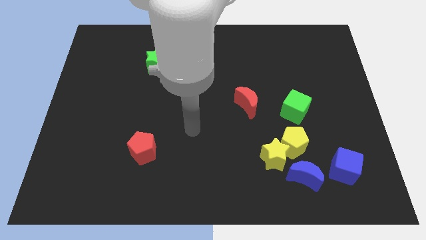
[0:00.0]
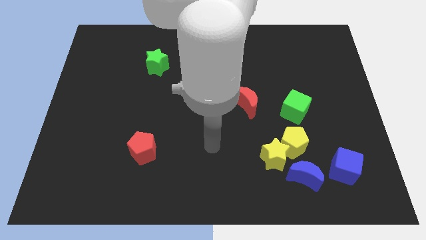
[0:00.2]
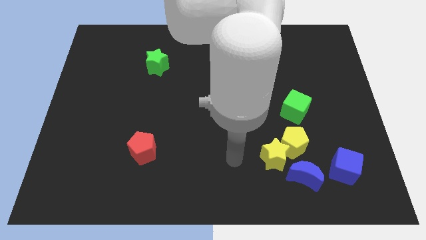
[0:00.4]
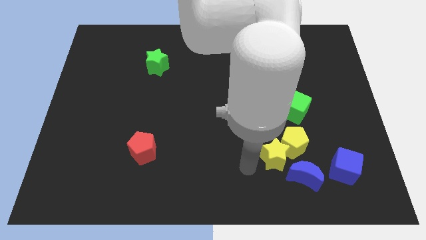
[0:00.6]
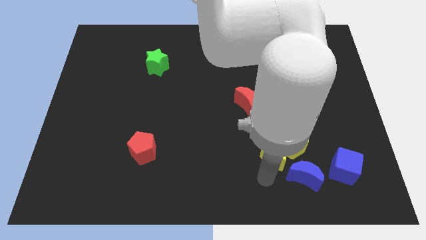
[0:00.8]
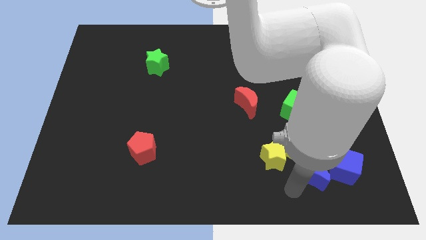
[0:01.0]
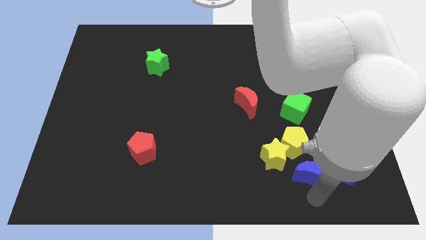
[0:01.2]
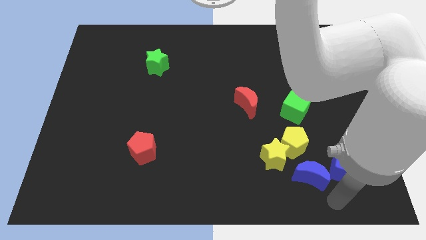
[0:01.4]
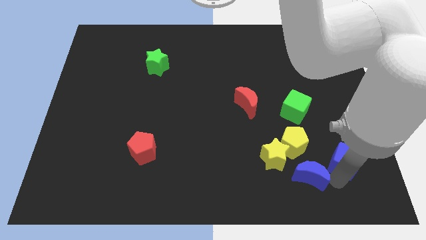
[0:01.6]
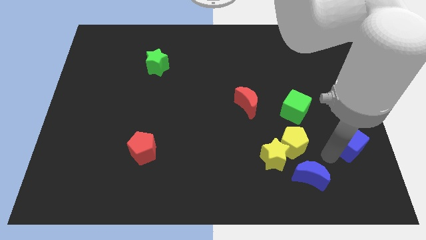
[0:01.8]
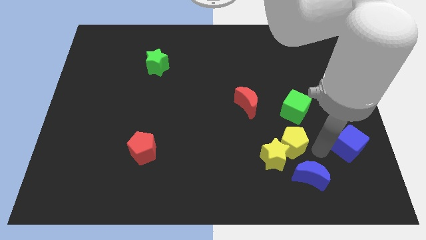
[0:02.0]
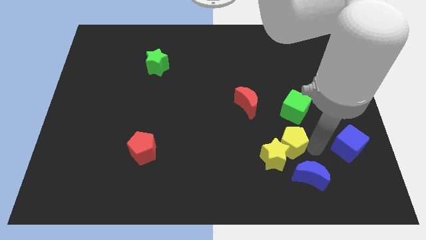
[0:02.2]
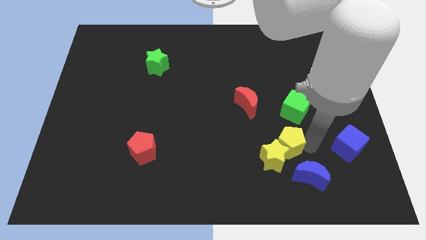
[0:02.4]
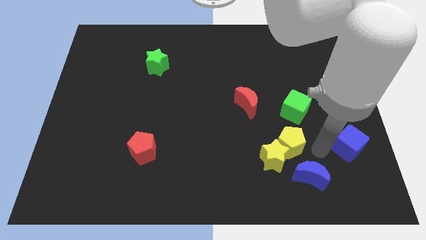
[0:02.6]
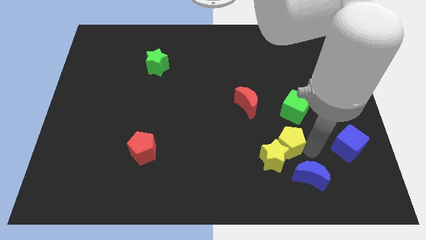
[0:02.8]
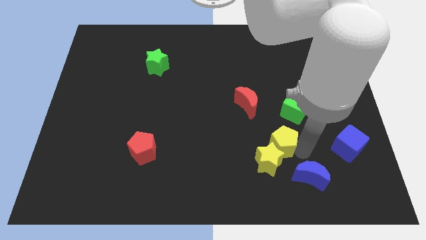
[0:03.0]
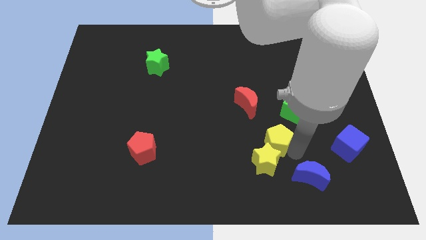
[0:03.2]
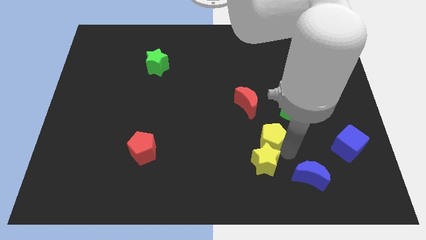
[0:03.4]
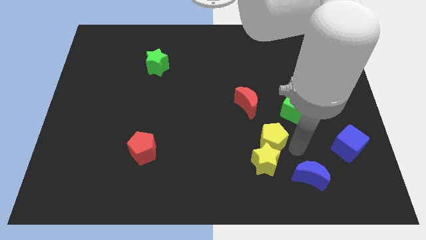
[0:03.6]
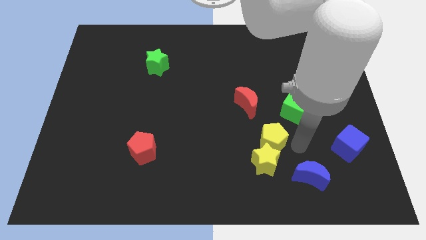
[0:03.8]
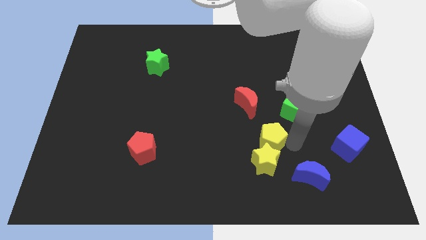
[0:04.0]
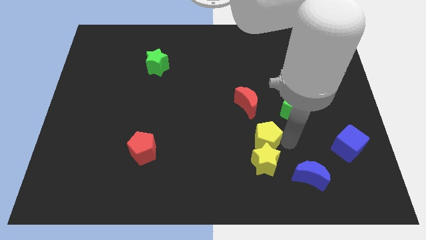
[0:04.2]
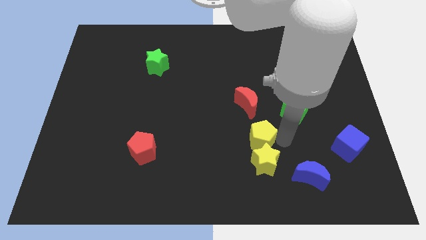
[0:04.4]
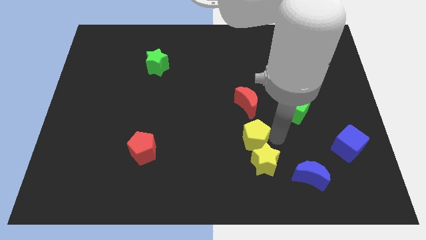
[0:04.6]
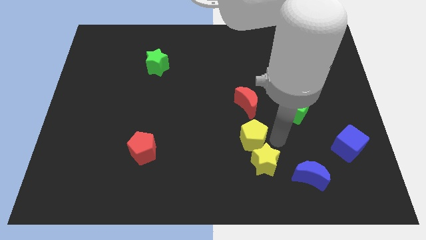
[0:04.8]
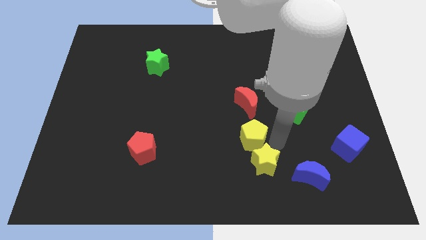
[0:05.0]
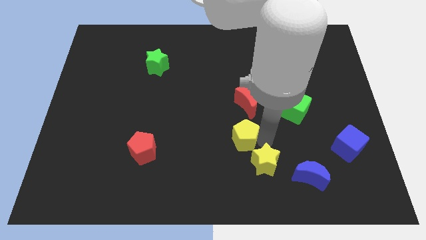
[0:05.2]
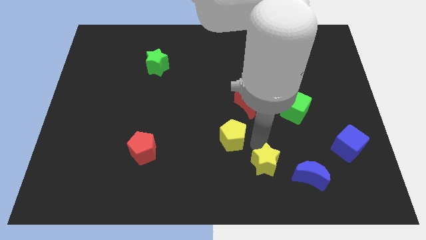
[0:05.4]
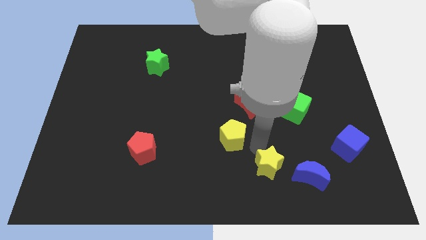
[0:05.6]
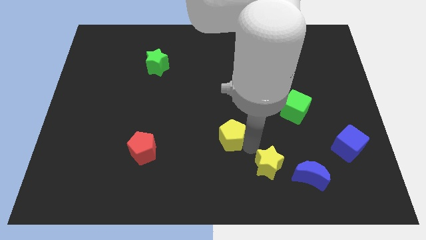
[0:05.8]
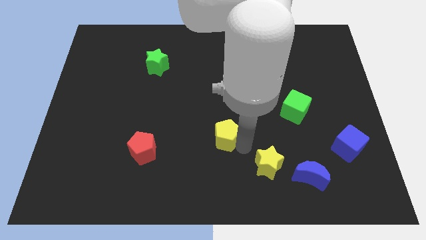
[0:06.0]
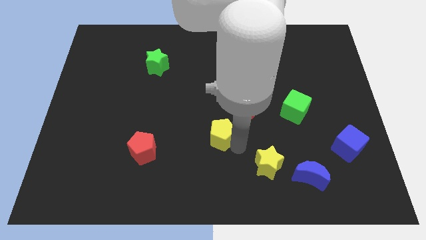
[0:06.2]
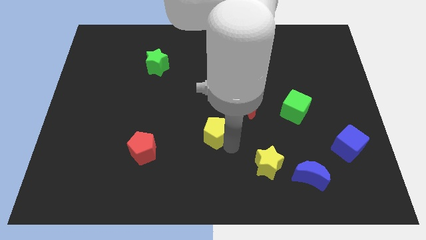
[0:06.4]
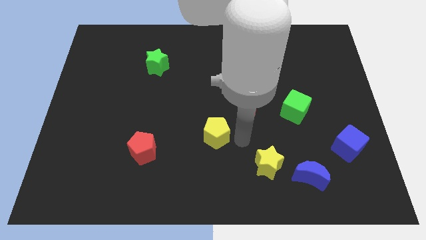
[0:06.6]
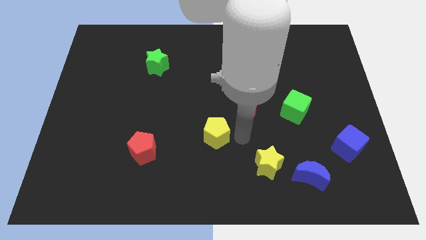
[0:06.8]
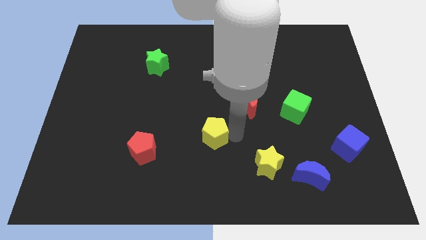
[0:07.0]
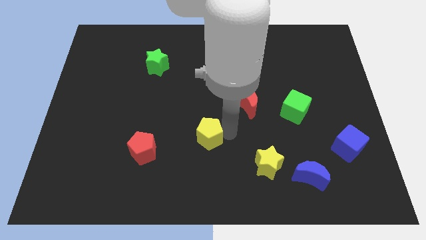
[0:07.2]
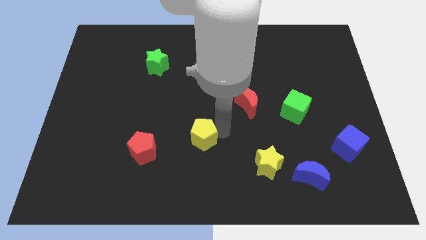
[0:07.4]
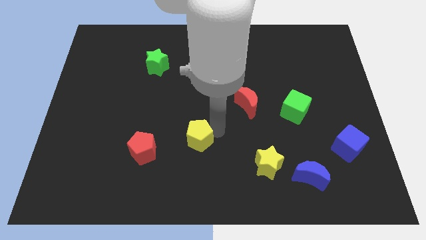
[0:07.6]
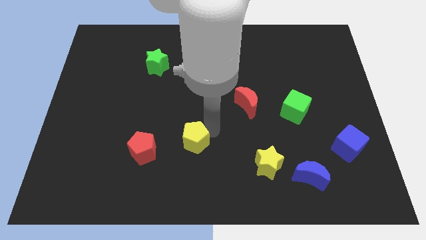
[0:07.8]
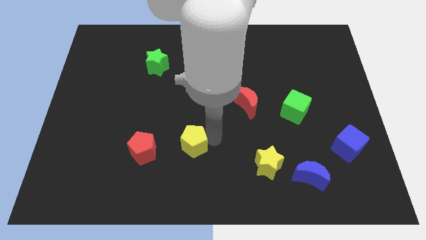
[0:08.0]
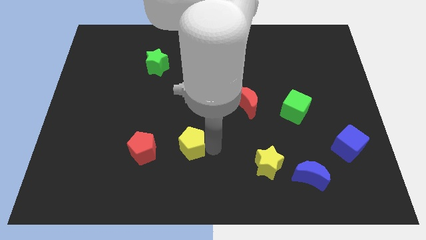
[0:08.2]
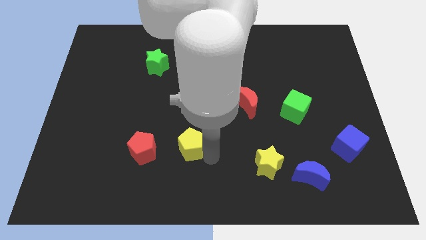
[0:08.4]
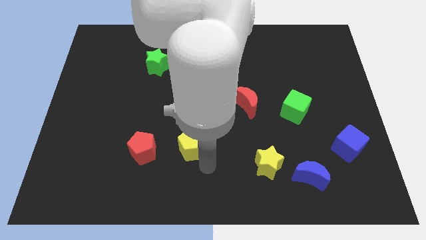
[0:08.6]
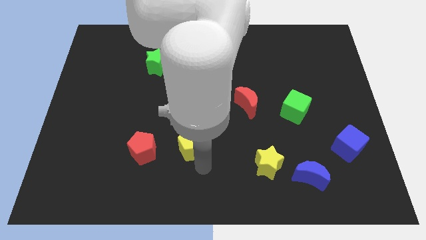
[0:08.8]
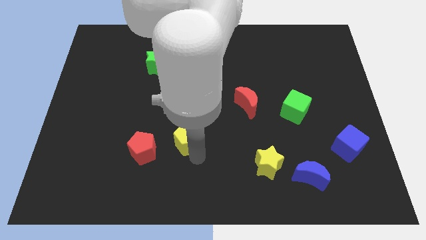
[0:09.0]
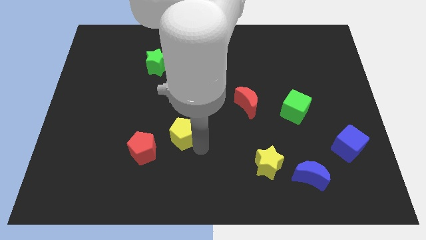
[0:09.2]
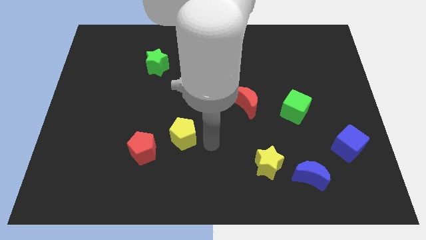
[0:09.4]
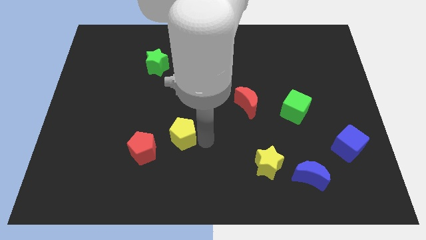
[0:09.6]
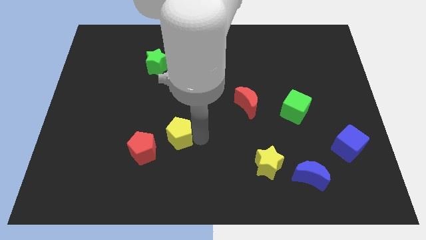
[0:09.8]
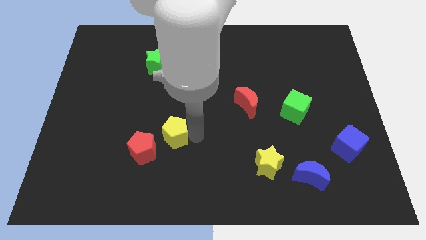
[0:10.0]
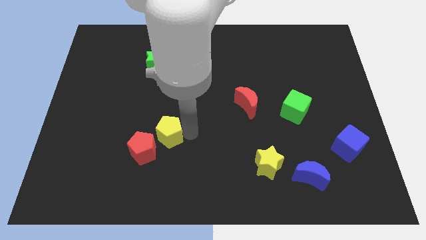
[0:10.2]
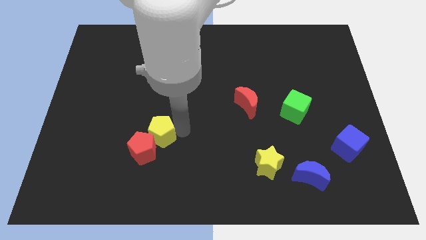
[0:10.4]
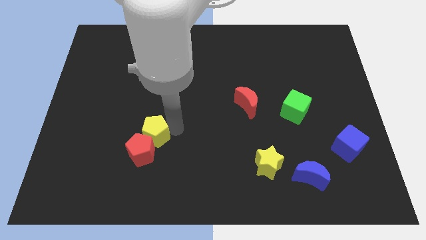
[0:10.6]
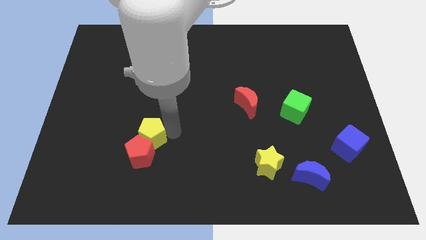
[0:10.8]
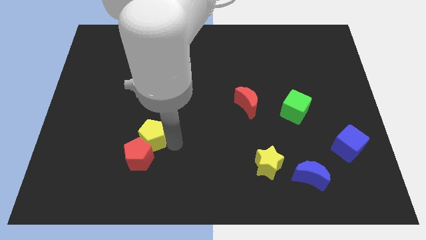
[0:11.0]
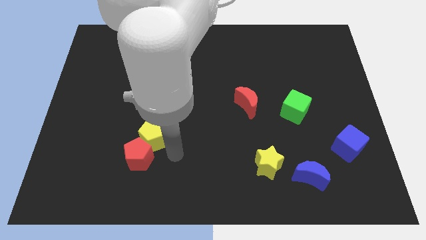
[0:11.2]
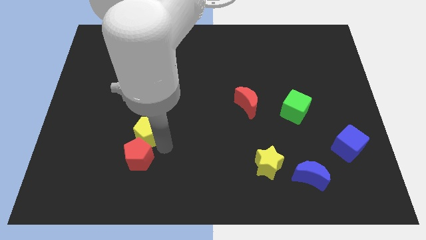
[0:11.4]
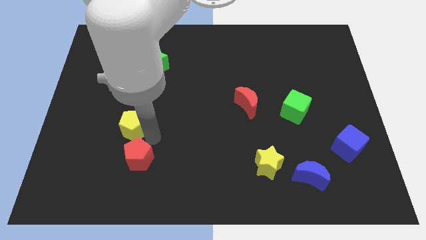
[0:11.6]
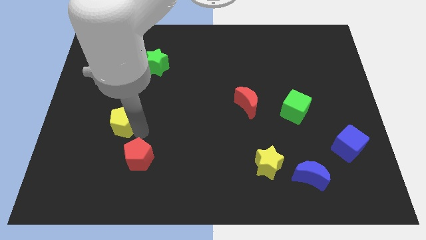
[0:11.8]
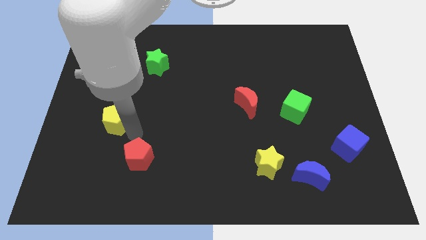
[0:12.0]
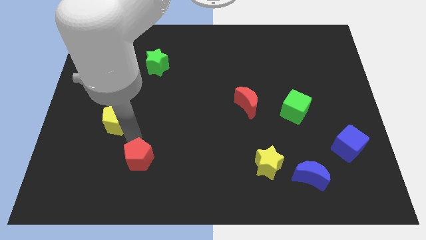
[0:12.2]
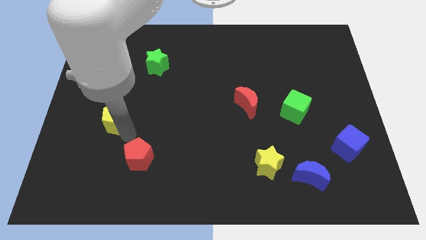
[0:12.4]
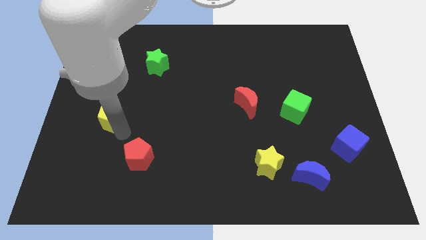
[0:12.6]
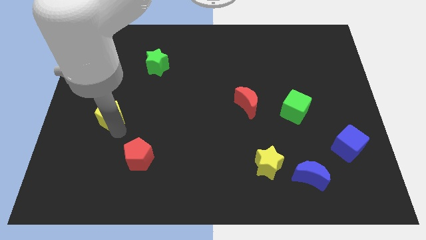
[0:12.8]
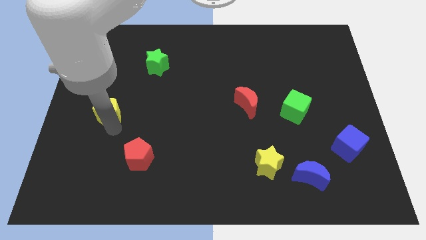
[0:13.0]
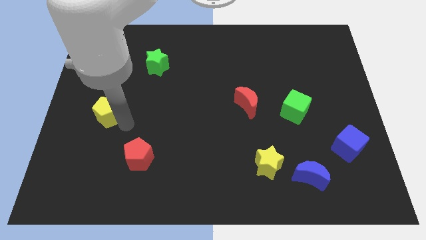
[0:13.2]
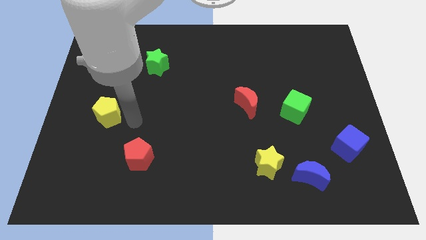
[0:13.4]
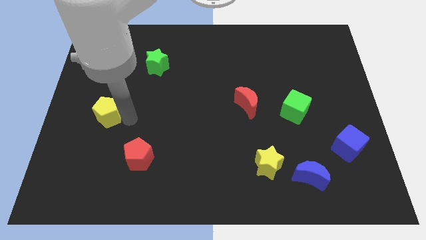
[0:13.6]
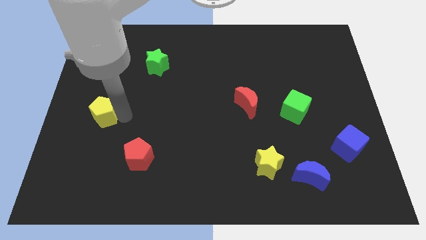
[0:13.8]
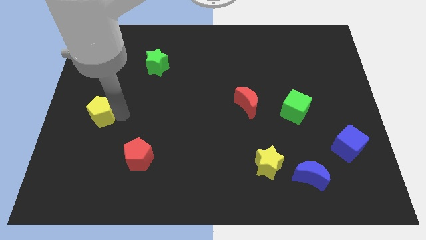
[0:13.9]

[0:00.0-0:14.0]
slide the yellow pentagon to the left side of the board
